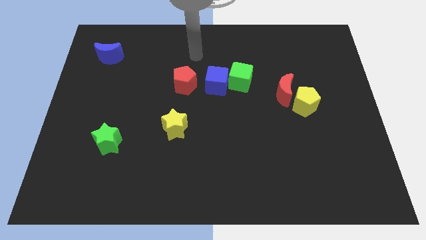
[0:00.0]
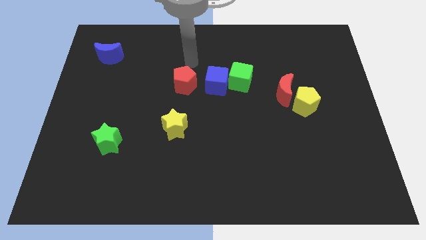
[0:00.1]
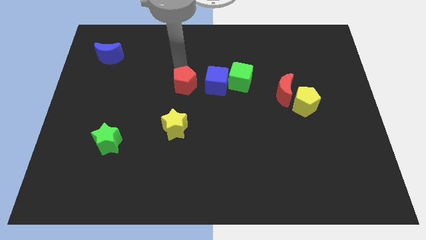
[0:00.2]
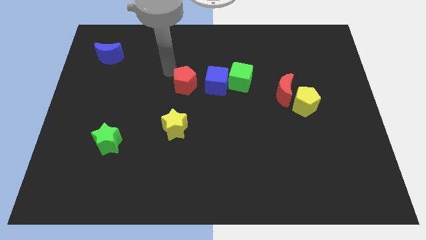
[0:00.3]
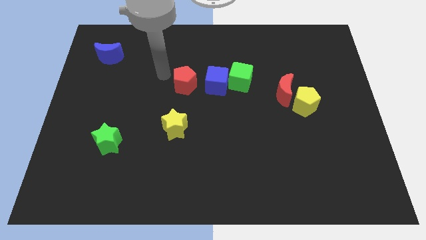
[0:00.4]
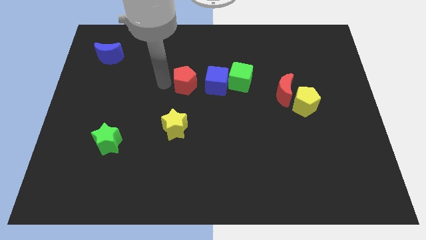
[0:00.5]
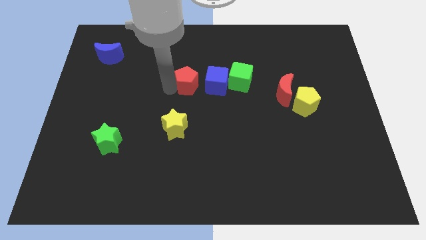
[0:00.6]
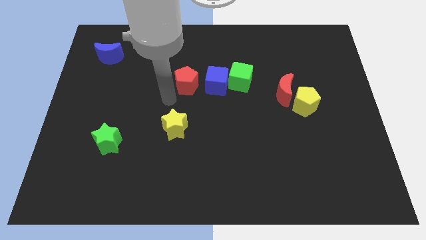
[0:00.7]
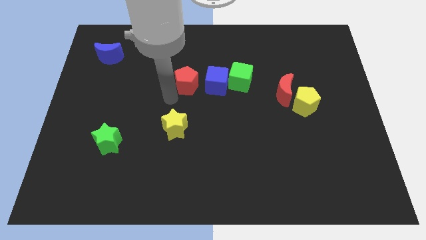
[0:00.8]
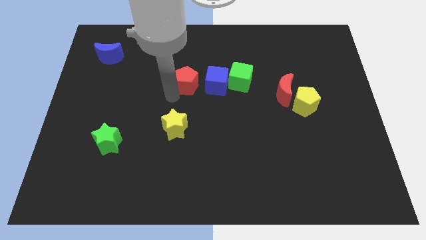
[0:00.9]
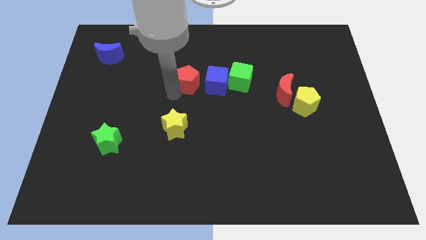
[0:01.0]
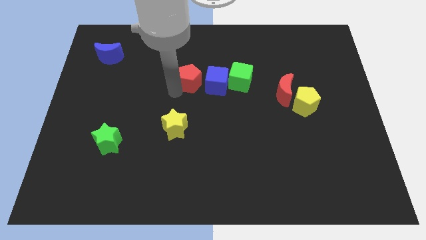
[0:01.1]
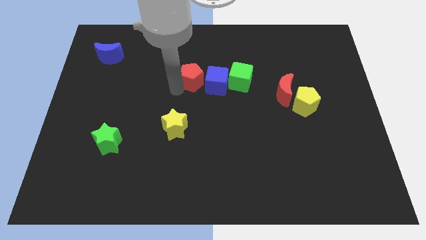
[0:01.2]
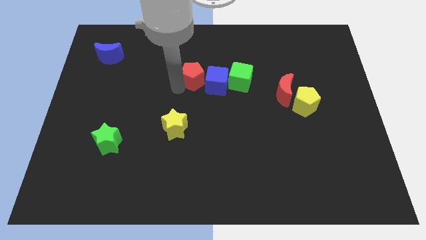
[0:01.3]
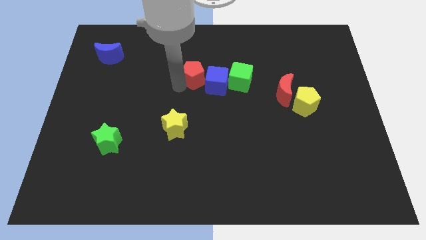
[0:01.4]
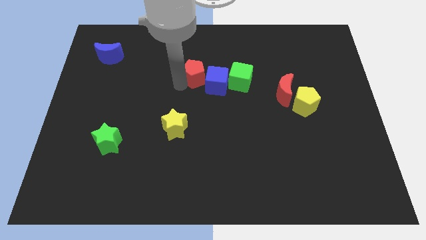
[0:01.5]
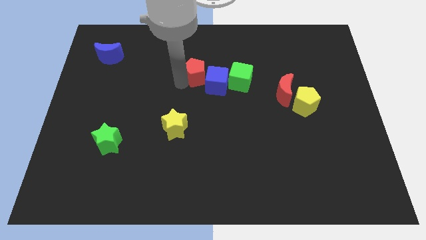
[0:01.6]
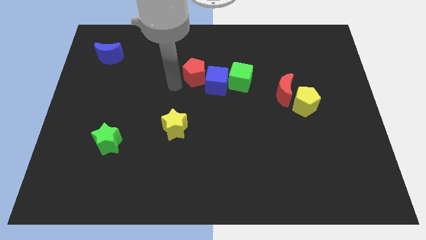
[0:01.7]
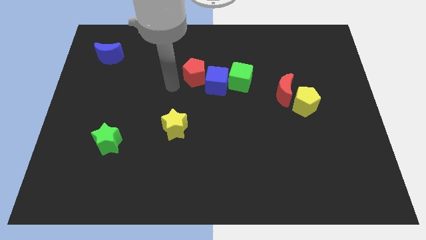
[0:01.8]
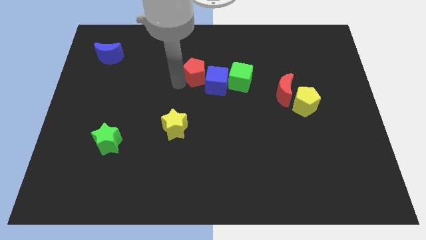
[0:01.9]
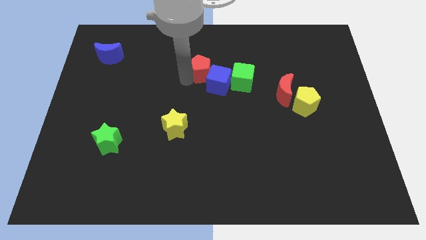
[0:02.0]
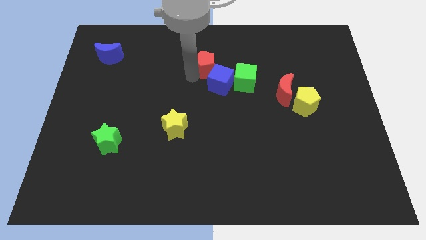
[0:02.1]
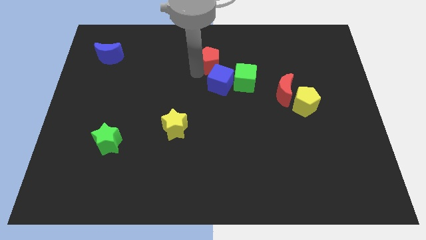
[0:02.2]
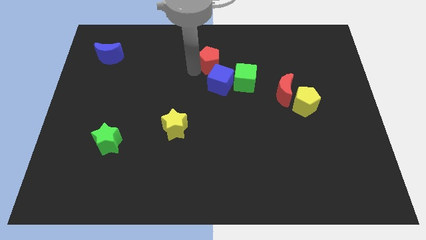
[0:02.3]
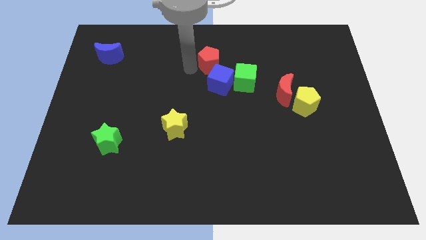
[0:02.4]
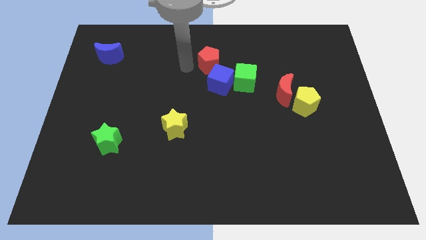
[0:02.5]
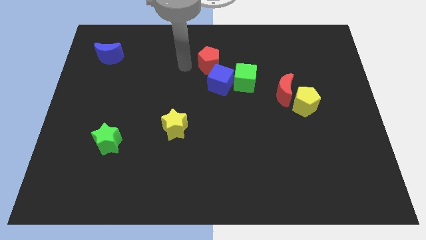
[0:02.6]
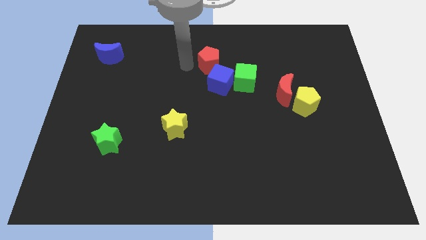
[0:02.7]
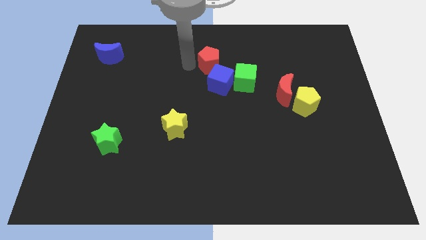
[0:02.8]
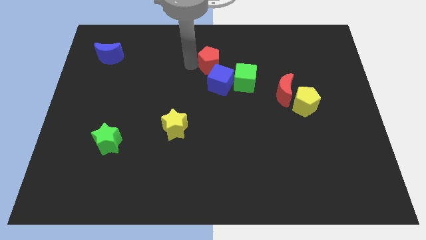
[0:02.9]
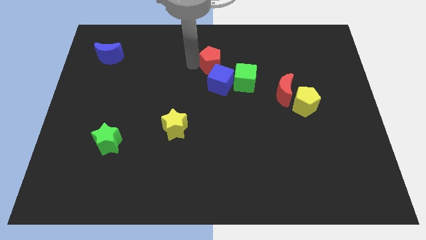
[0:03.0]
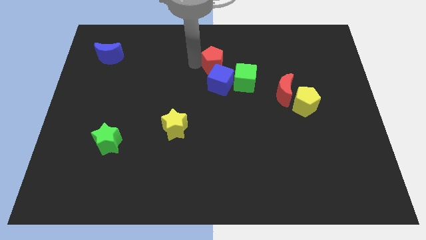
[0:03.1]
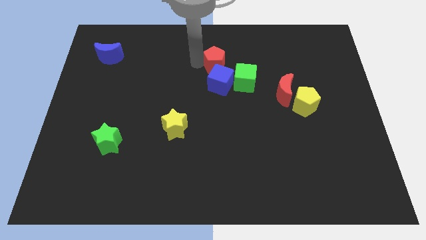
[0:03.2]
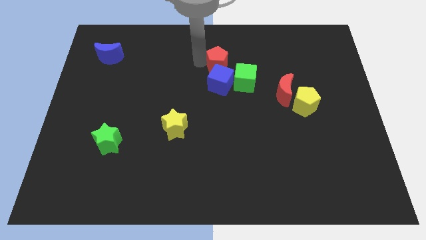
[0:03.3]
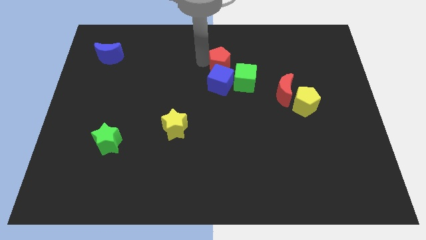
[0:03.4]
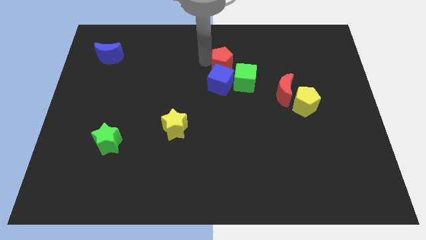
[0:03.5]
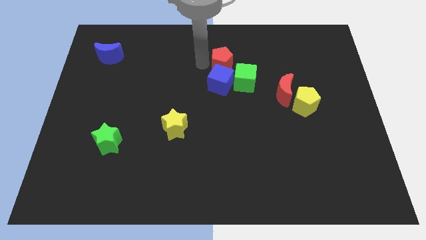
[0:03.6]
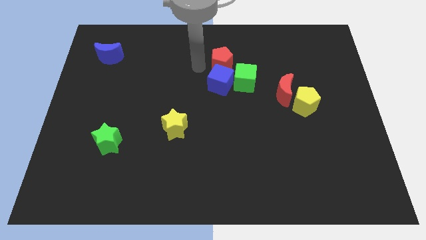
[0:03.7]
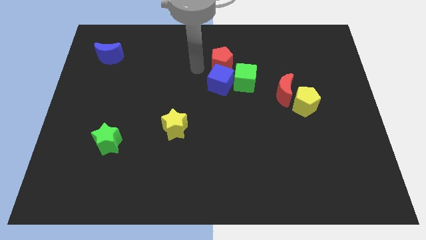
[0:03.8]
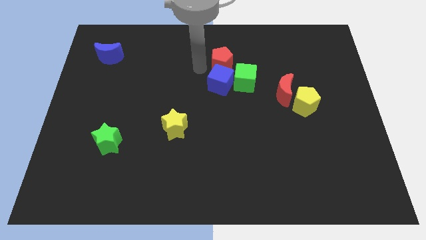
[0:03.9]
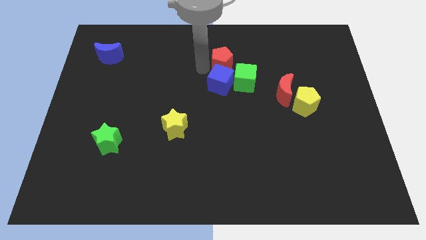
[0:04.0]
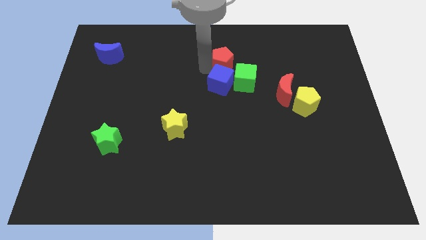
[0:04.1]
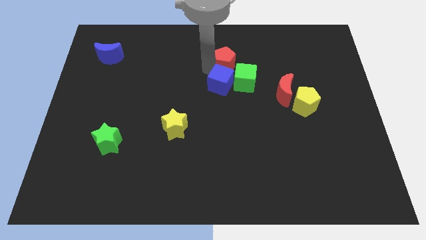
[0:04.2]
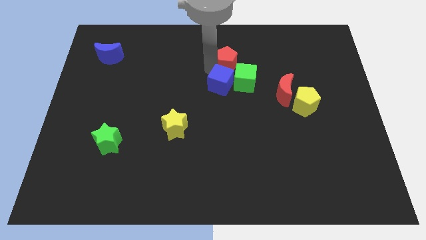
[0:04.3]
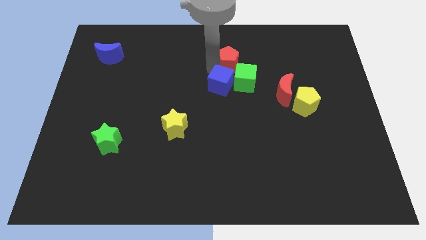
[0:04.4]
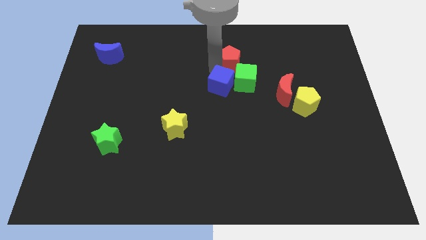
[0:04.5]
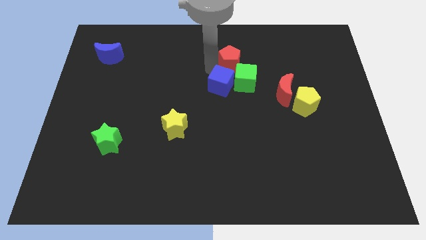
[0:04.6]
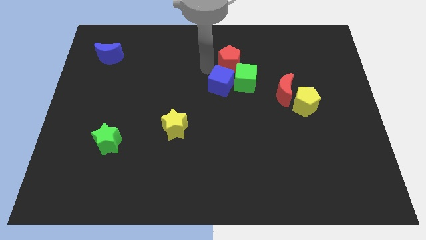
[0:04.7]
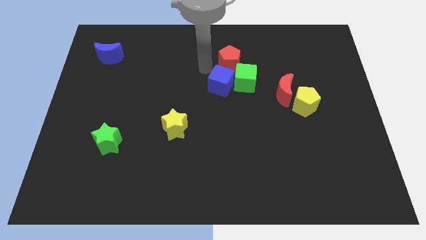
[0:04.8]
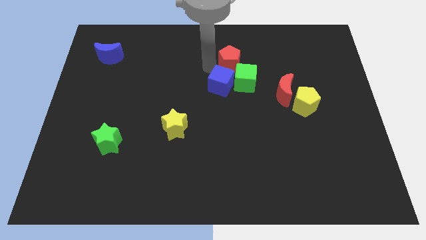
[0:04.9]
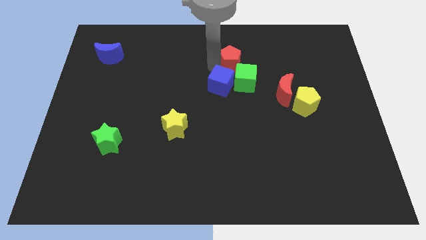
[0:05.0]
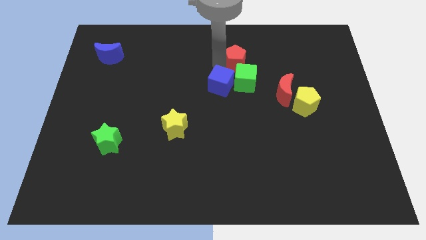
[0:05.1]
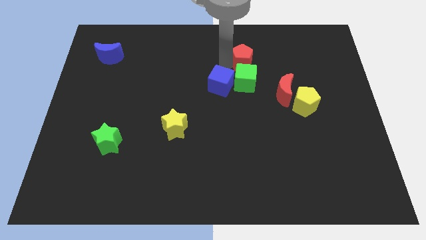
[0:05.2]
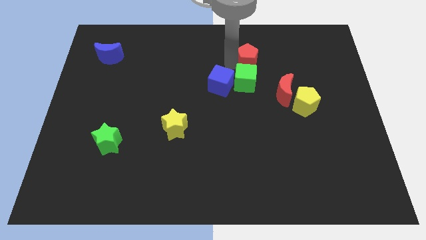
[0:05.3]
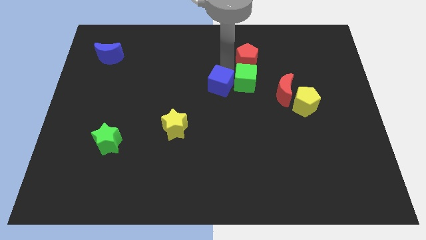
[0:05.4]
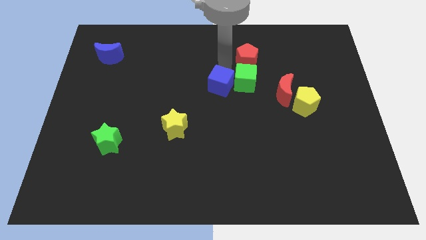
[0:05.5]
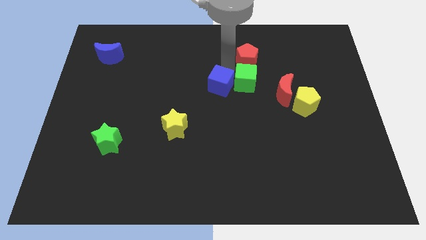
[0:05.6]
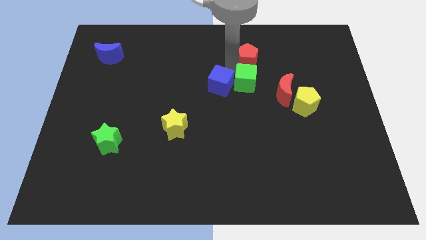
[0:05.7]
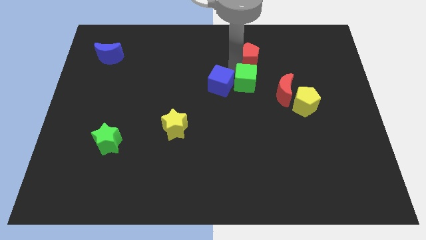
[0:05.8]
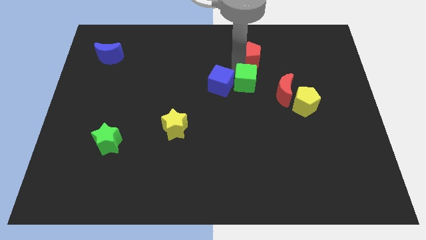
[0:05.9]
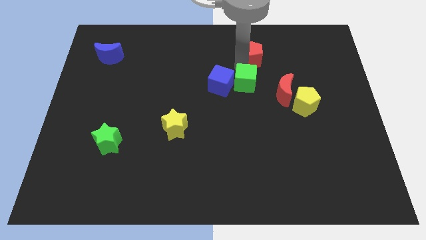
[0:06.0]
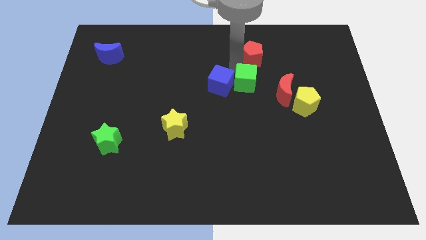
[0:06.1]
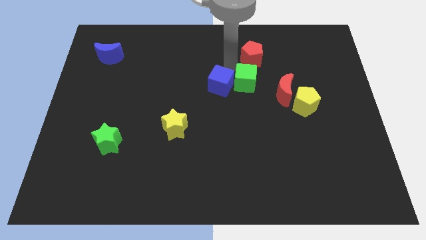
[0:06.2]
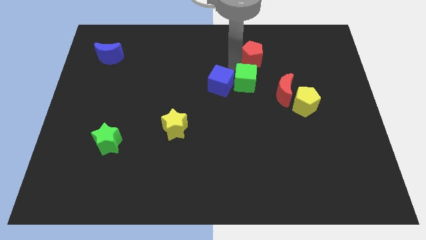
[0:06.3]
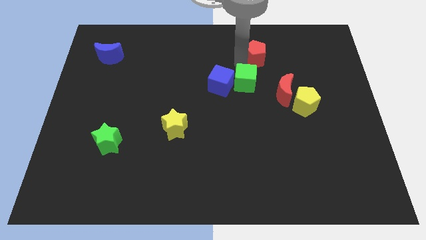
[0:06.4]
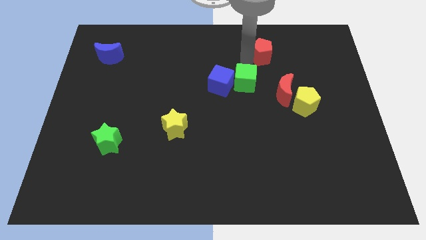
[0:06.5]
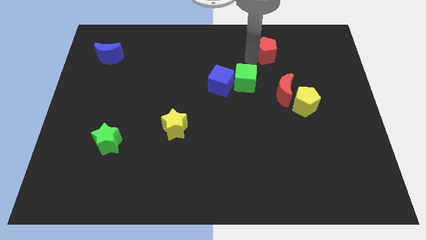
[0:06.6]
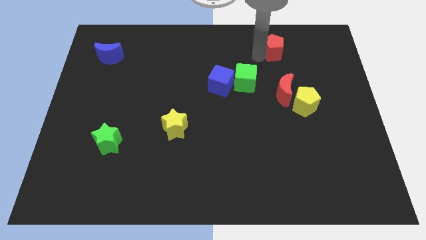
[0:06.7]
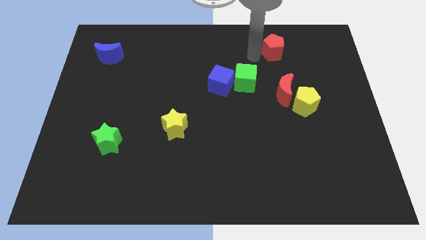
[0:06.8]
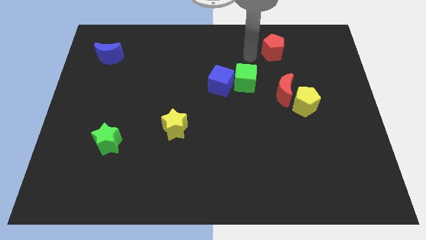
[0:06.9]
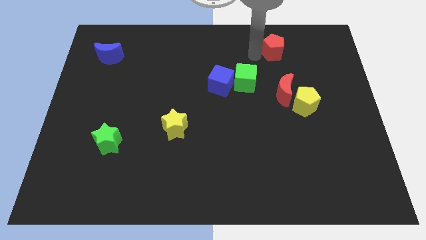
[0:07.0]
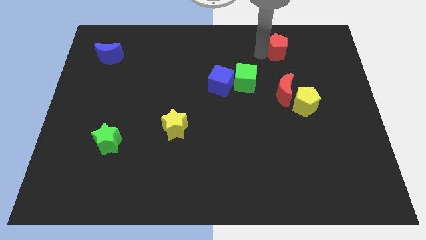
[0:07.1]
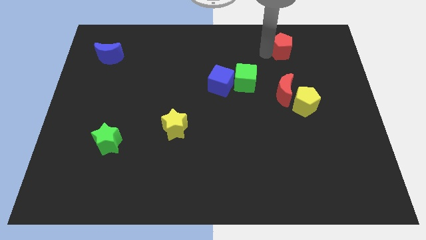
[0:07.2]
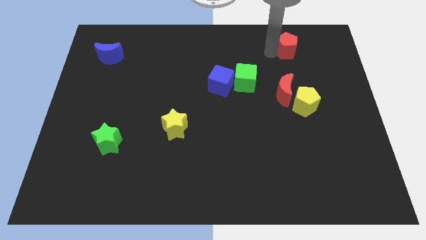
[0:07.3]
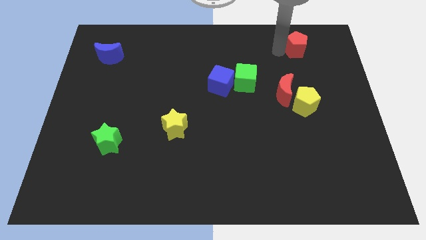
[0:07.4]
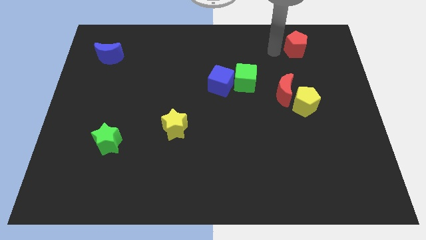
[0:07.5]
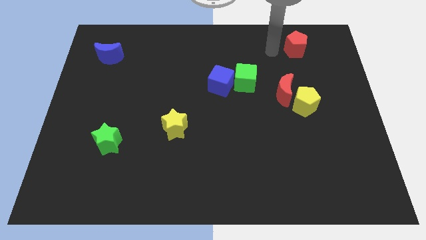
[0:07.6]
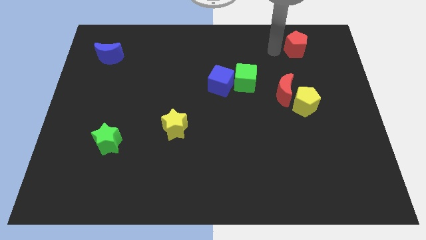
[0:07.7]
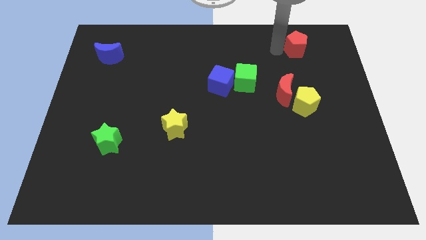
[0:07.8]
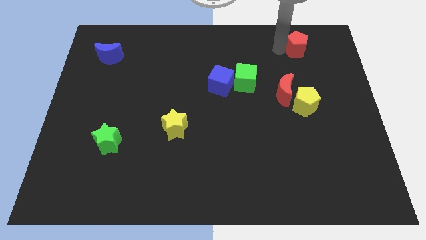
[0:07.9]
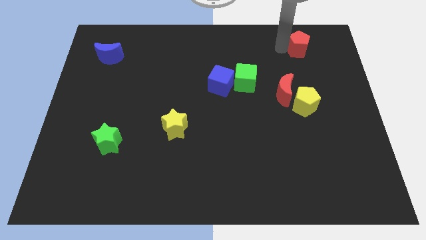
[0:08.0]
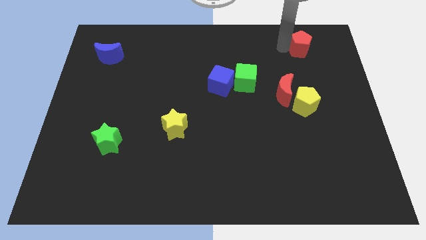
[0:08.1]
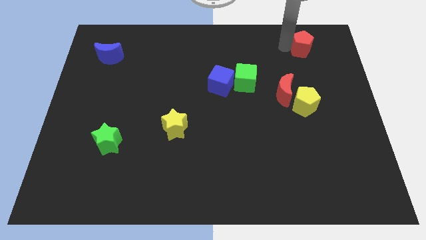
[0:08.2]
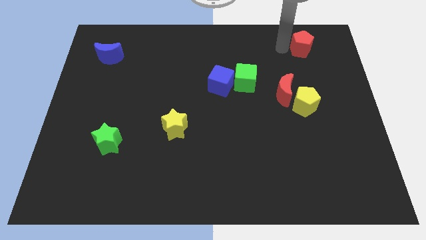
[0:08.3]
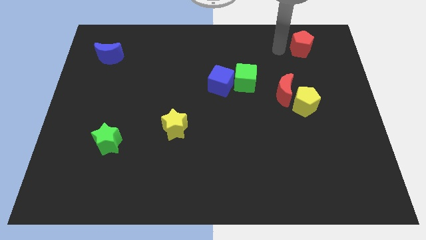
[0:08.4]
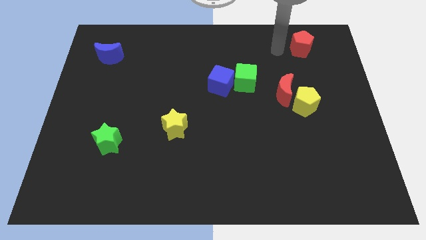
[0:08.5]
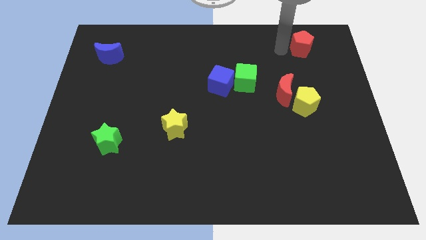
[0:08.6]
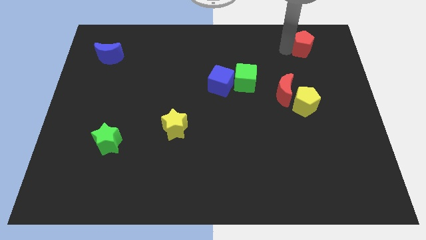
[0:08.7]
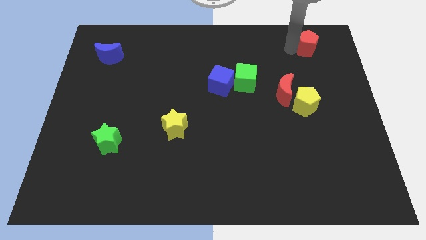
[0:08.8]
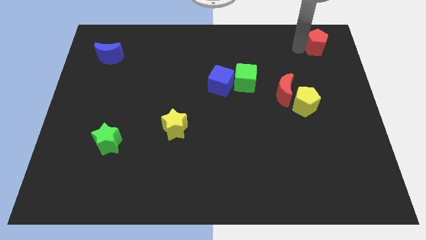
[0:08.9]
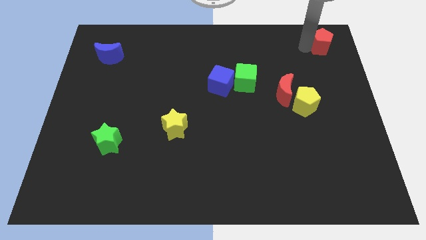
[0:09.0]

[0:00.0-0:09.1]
push the red pentagon to the top right corner
